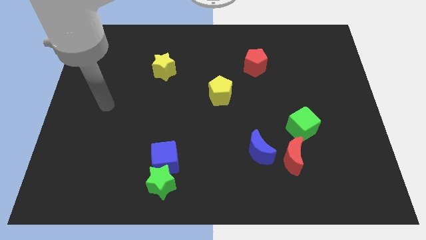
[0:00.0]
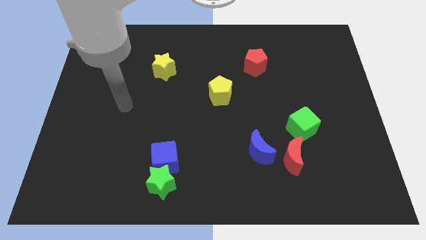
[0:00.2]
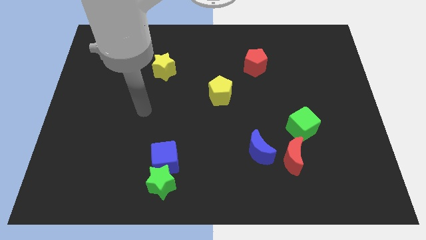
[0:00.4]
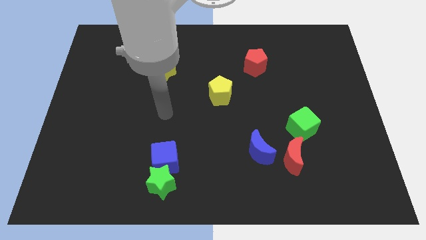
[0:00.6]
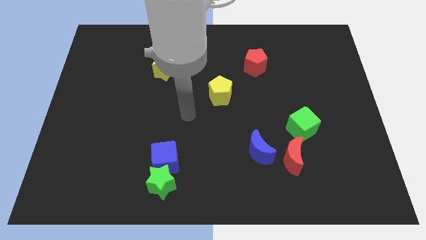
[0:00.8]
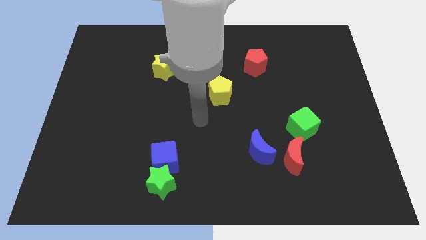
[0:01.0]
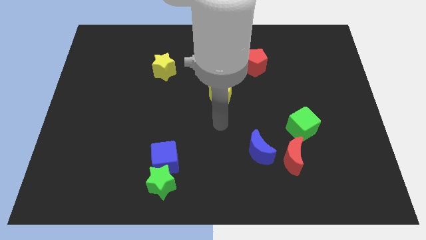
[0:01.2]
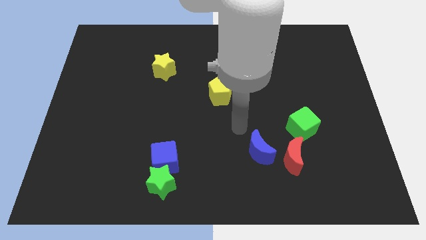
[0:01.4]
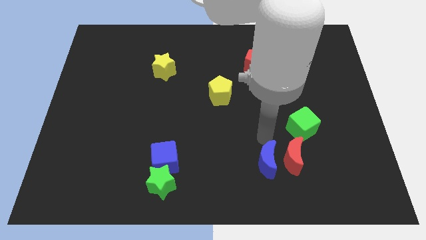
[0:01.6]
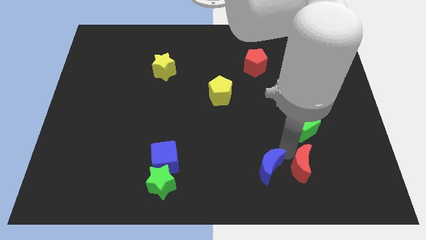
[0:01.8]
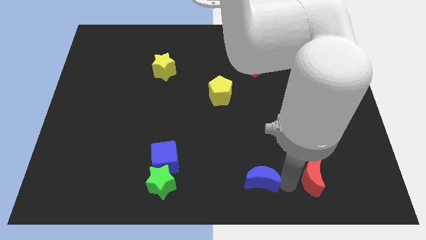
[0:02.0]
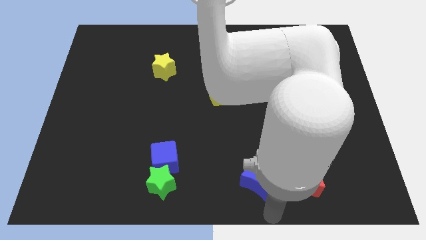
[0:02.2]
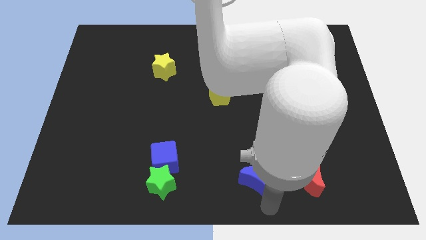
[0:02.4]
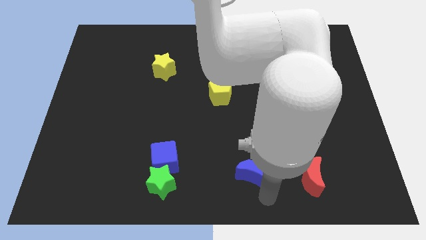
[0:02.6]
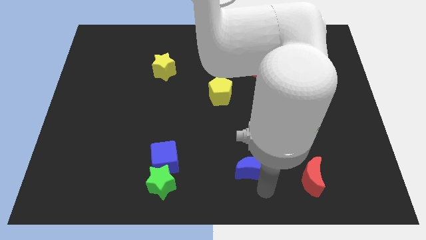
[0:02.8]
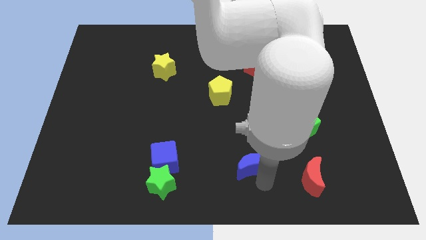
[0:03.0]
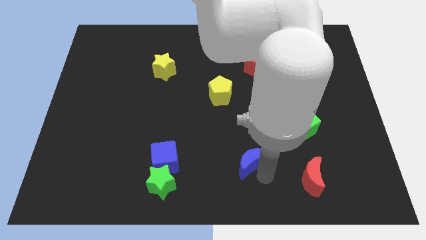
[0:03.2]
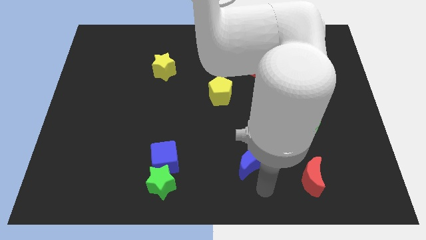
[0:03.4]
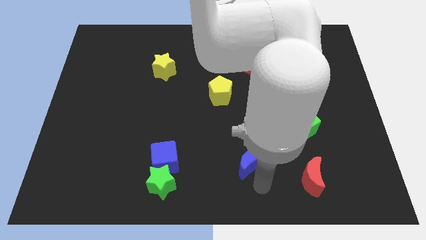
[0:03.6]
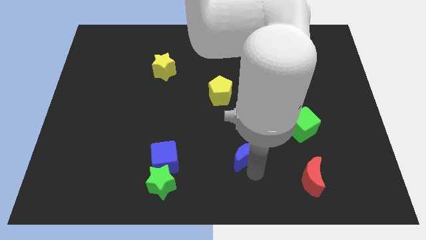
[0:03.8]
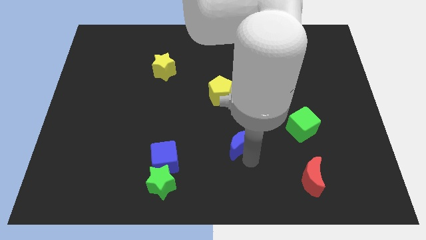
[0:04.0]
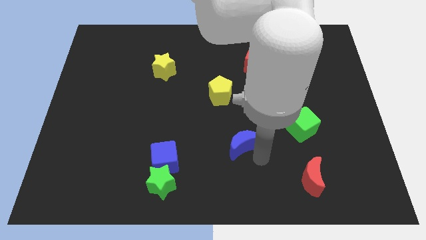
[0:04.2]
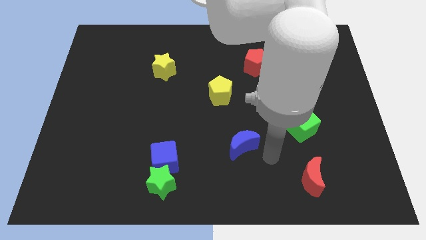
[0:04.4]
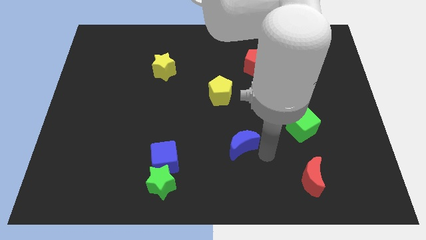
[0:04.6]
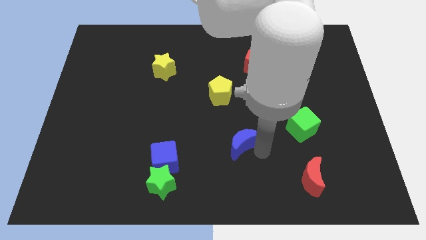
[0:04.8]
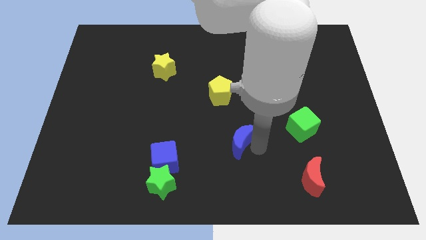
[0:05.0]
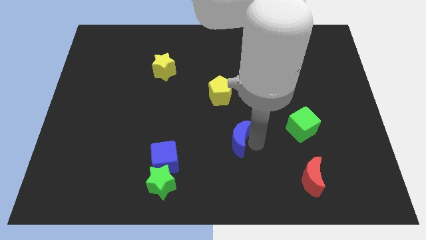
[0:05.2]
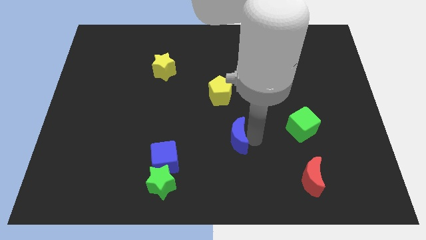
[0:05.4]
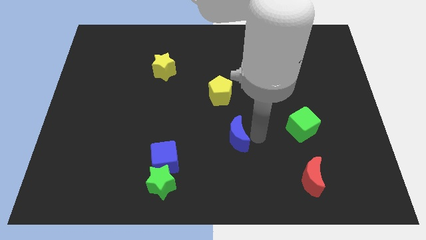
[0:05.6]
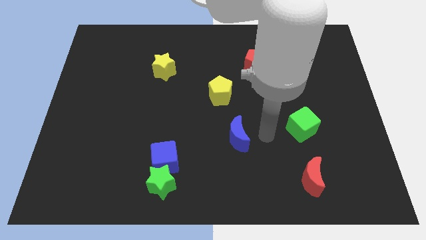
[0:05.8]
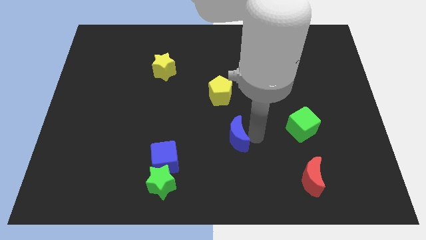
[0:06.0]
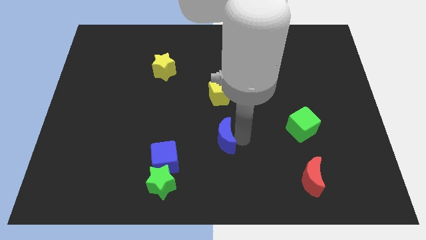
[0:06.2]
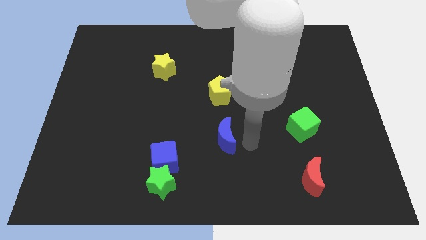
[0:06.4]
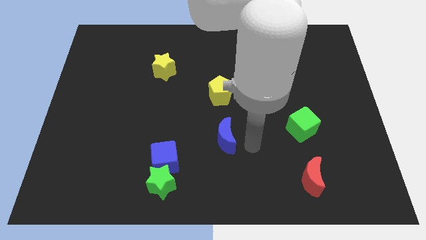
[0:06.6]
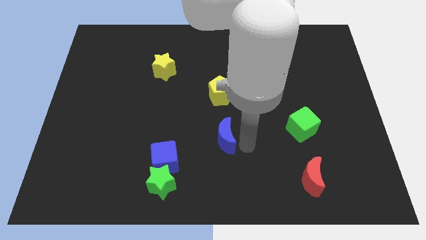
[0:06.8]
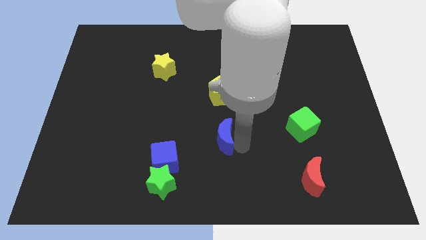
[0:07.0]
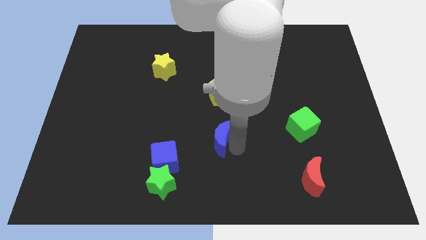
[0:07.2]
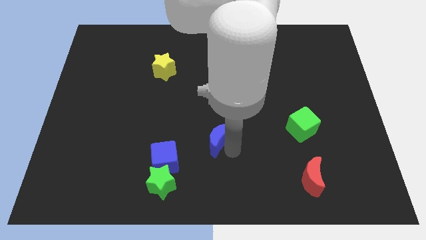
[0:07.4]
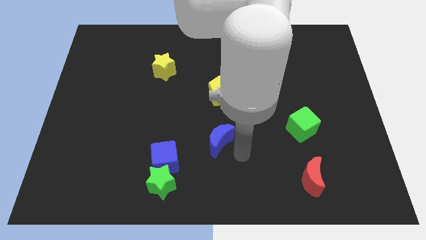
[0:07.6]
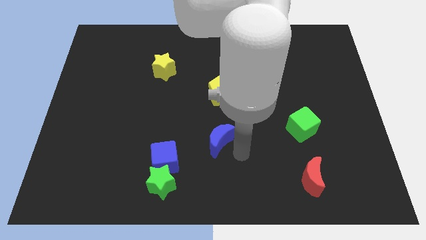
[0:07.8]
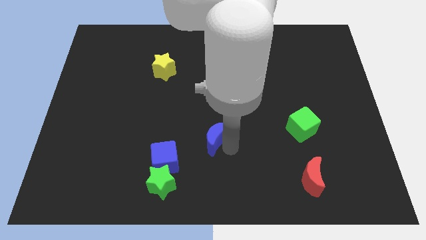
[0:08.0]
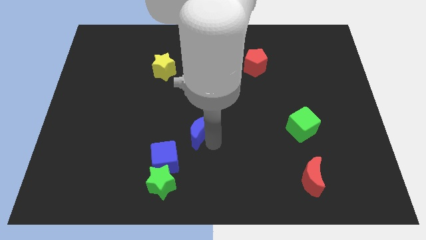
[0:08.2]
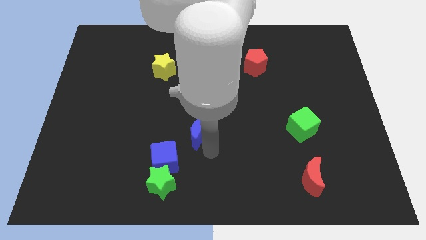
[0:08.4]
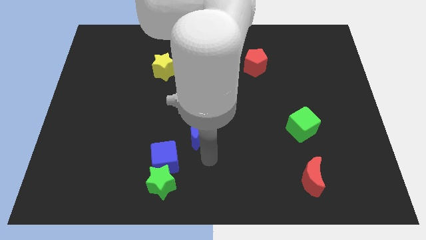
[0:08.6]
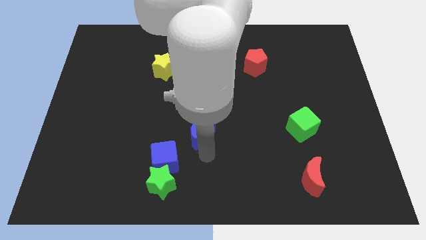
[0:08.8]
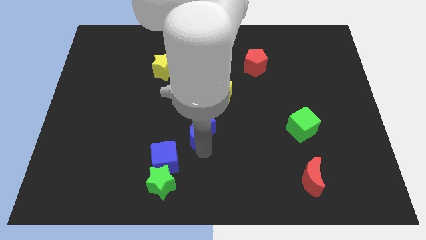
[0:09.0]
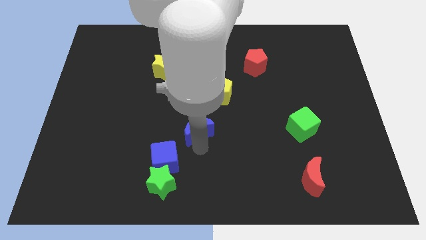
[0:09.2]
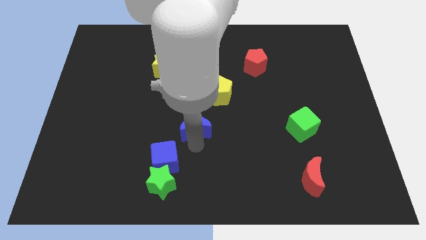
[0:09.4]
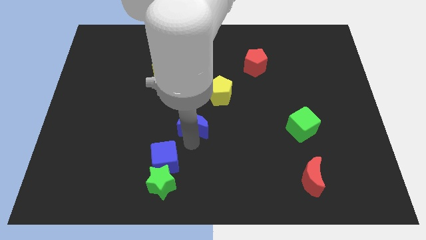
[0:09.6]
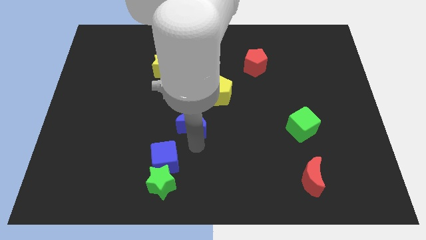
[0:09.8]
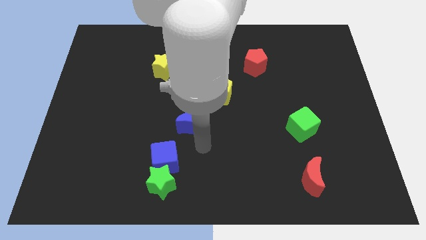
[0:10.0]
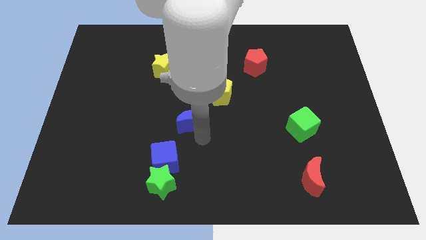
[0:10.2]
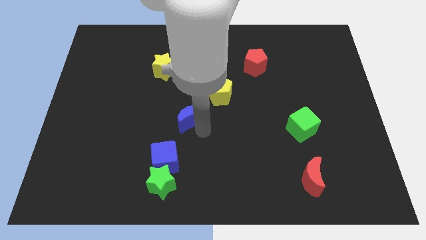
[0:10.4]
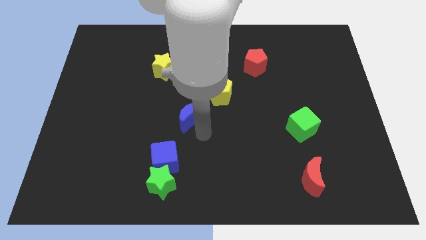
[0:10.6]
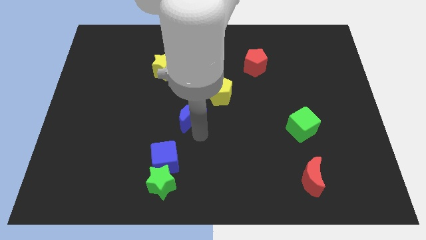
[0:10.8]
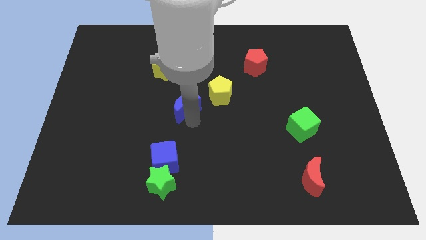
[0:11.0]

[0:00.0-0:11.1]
push the blue moon just left of the yellow pentagon

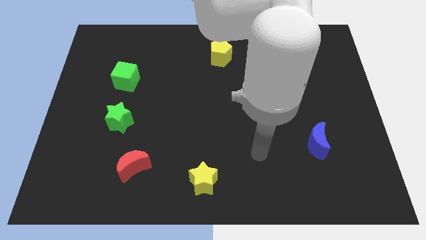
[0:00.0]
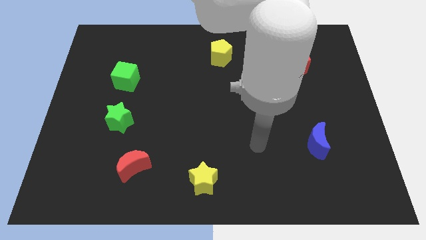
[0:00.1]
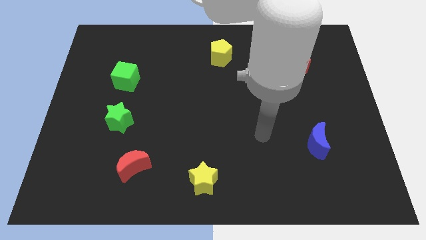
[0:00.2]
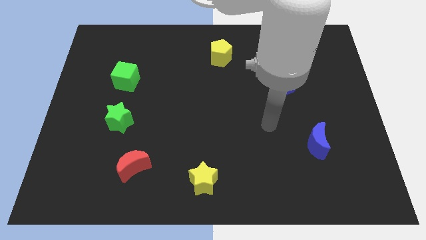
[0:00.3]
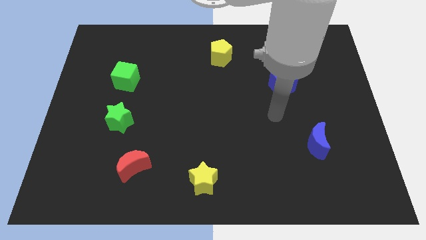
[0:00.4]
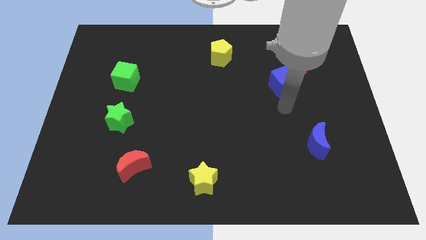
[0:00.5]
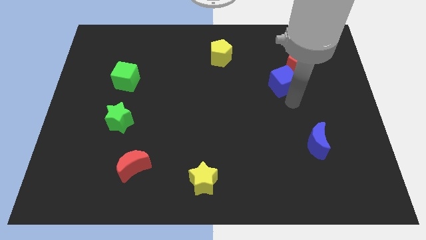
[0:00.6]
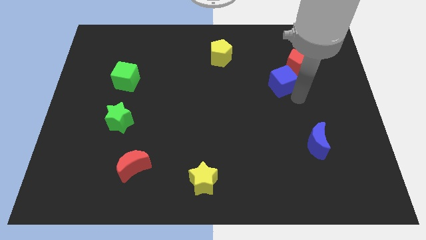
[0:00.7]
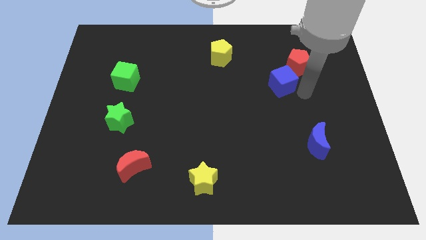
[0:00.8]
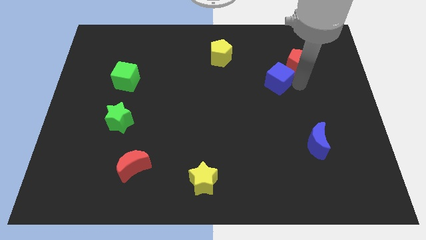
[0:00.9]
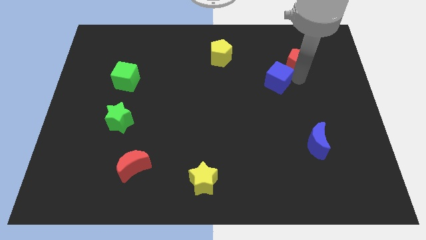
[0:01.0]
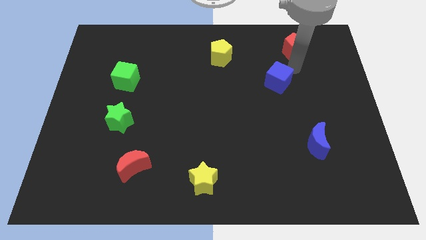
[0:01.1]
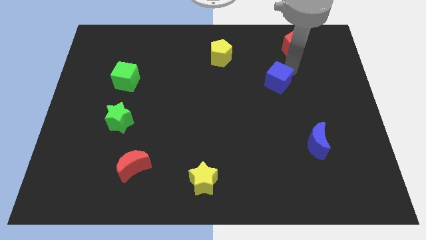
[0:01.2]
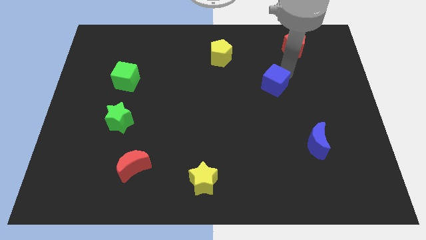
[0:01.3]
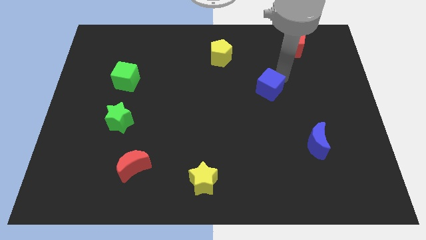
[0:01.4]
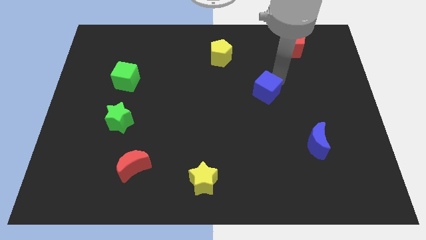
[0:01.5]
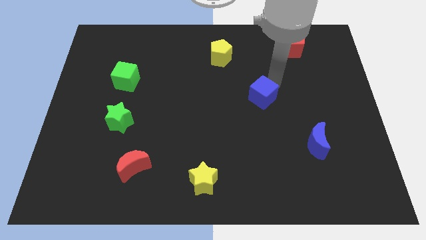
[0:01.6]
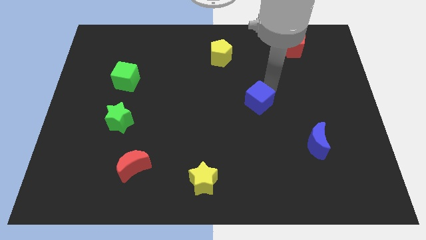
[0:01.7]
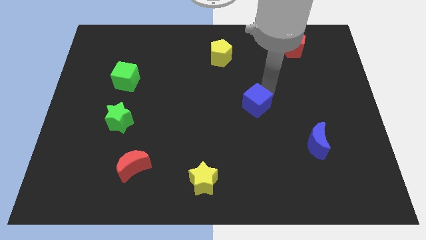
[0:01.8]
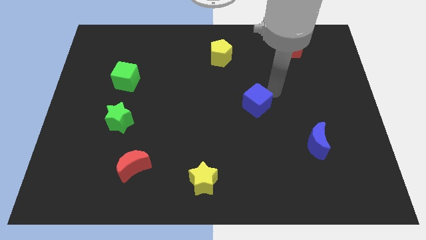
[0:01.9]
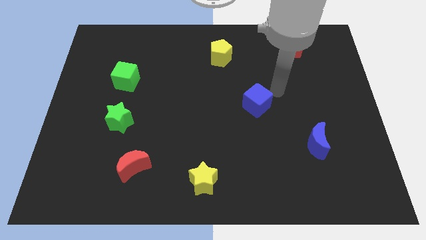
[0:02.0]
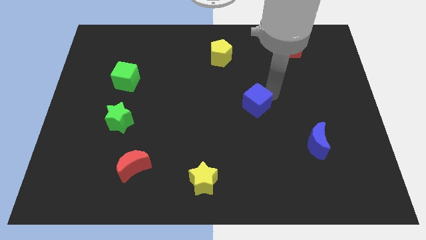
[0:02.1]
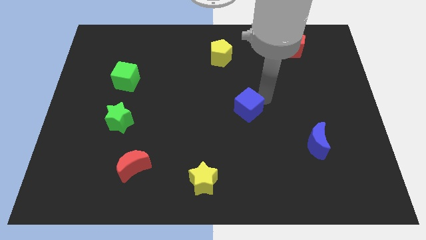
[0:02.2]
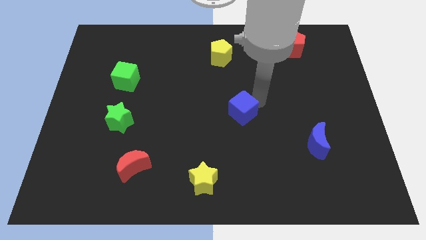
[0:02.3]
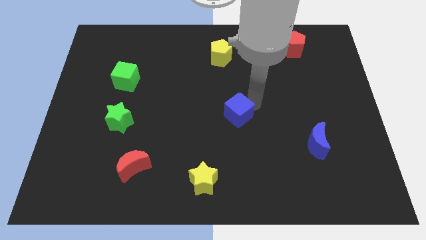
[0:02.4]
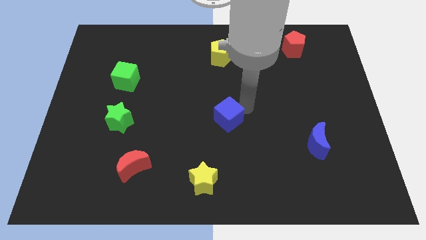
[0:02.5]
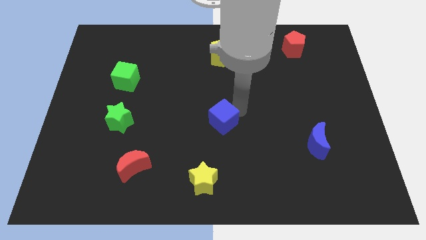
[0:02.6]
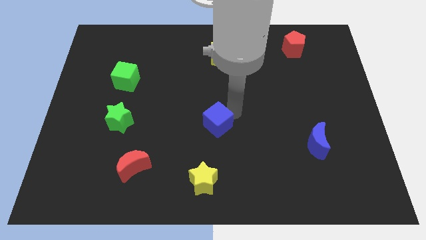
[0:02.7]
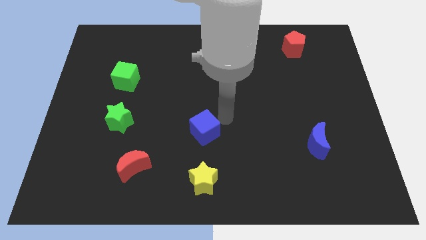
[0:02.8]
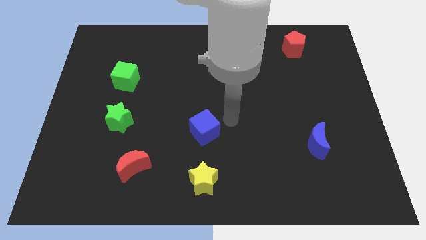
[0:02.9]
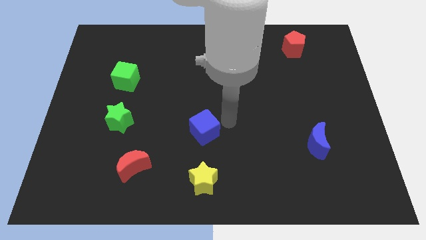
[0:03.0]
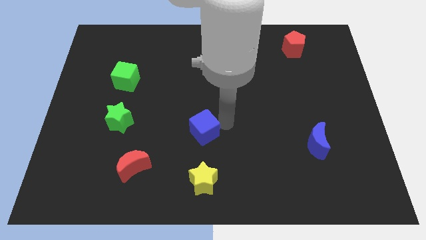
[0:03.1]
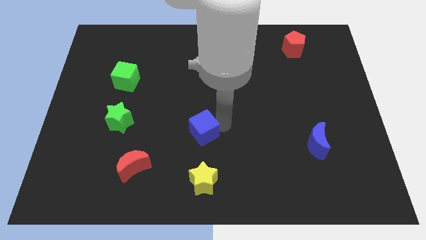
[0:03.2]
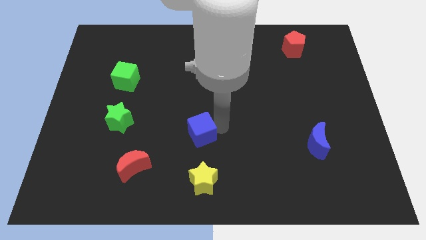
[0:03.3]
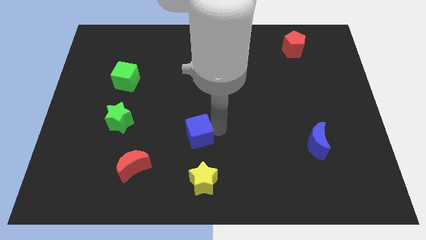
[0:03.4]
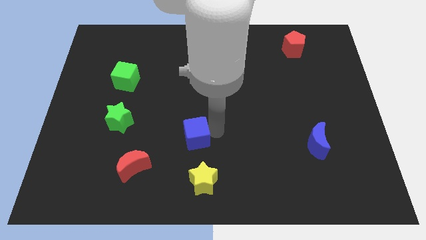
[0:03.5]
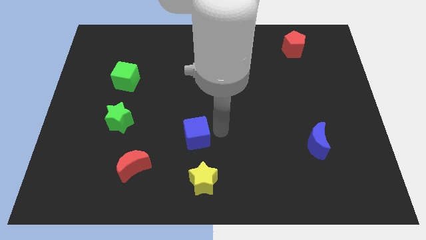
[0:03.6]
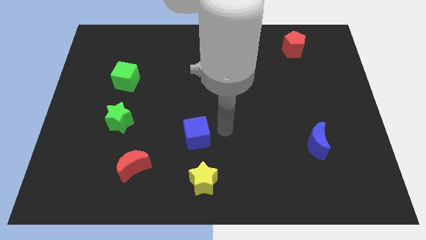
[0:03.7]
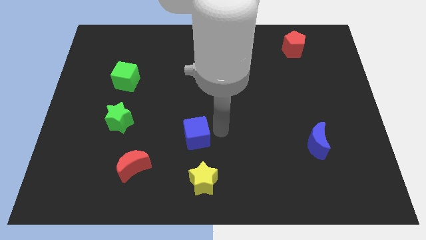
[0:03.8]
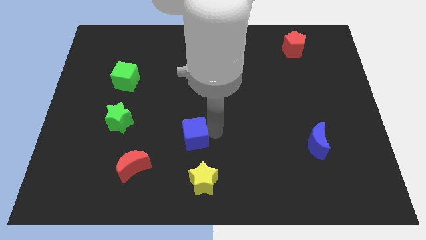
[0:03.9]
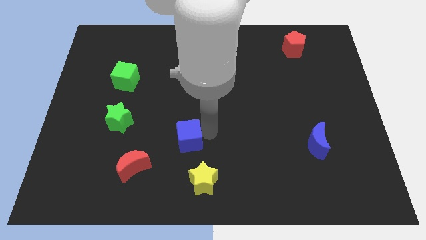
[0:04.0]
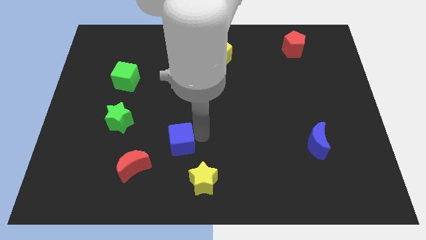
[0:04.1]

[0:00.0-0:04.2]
push the blue cube diagonally up and to the right of the red moon
